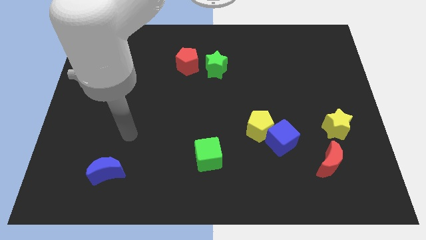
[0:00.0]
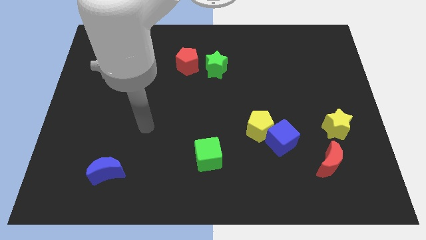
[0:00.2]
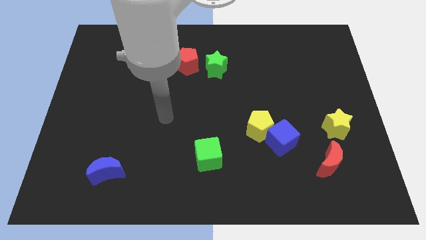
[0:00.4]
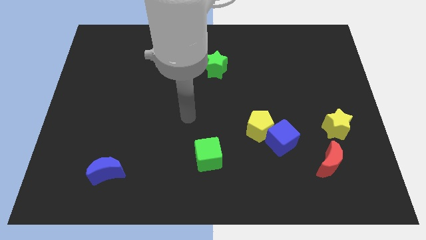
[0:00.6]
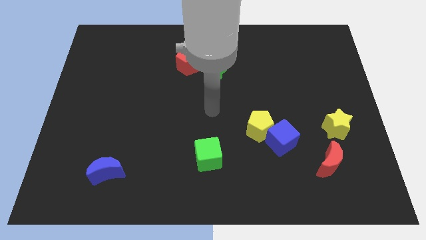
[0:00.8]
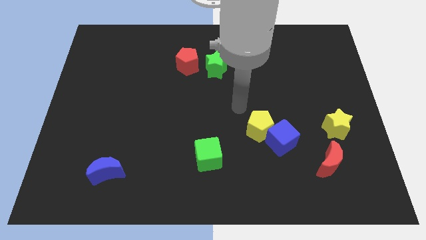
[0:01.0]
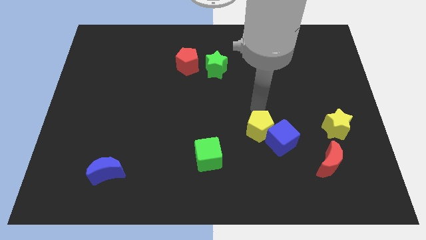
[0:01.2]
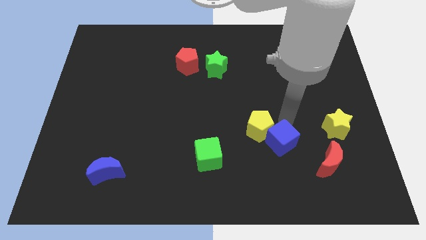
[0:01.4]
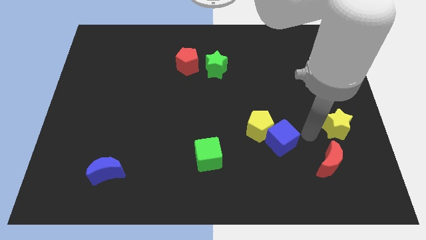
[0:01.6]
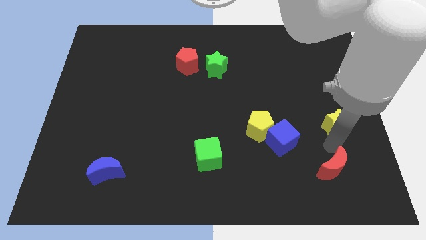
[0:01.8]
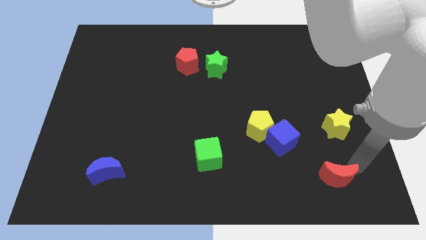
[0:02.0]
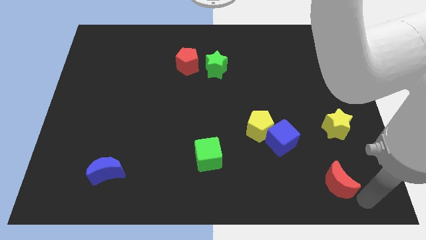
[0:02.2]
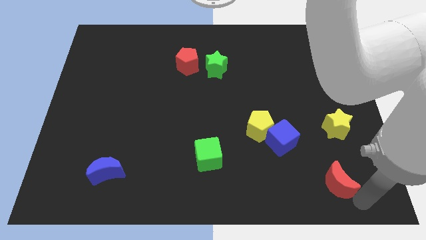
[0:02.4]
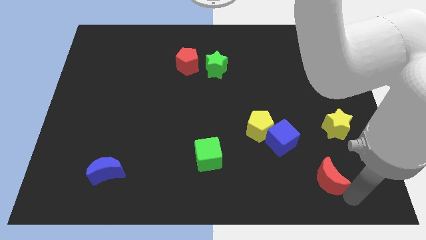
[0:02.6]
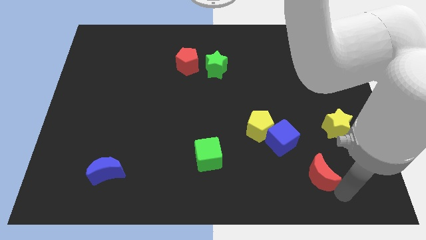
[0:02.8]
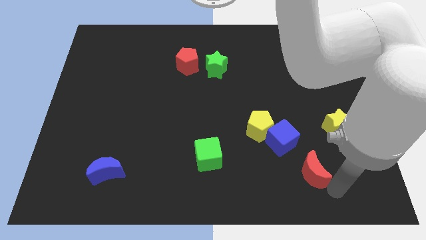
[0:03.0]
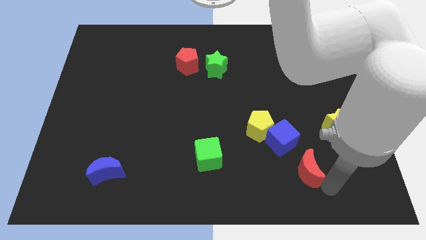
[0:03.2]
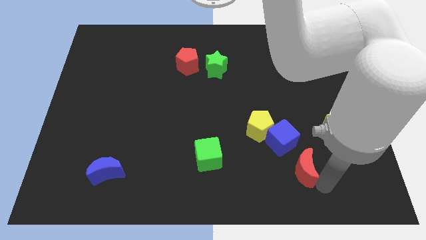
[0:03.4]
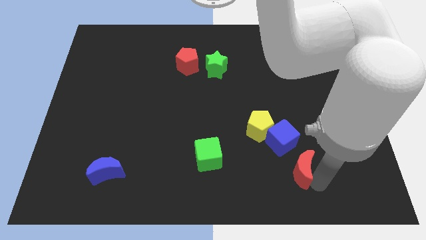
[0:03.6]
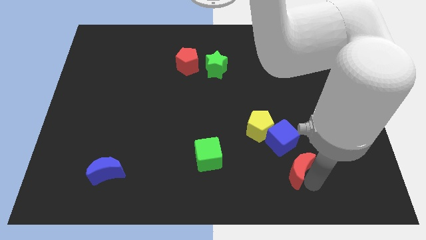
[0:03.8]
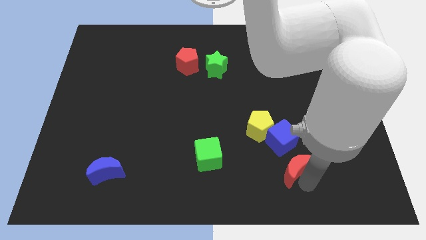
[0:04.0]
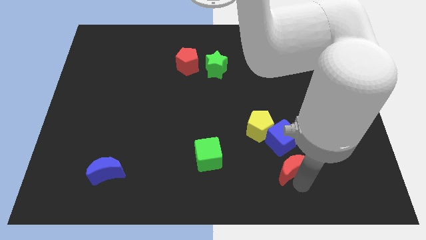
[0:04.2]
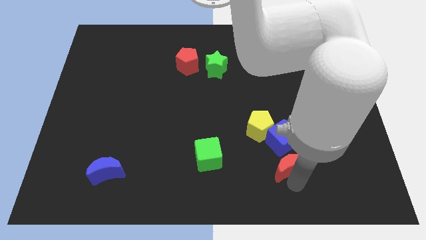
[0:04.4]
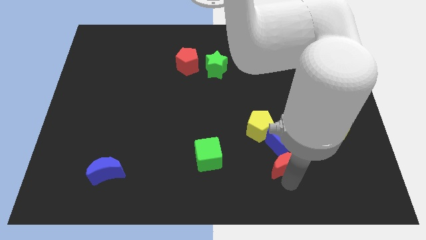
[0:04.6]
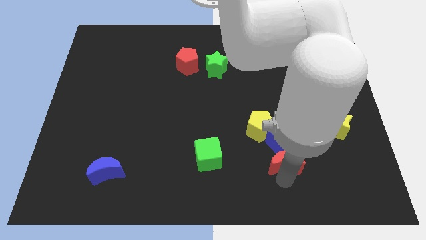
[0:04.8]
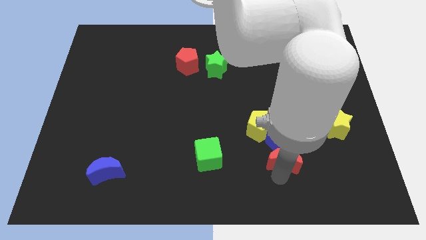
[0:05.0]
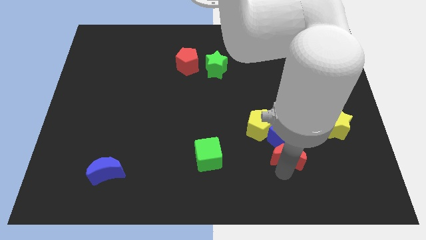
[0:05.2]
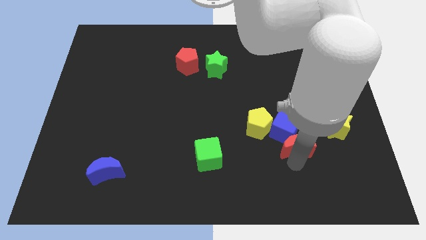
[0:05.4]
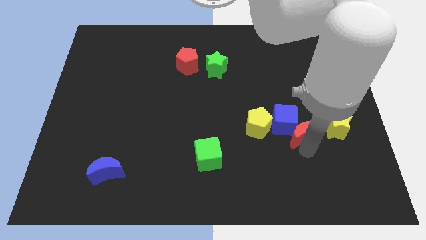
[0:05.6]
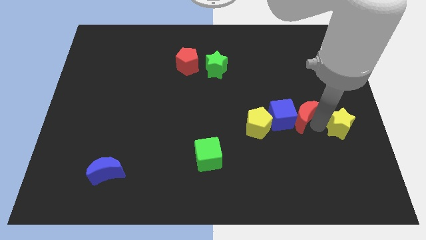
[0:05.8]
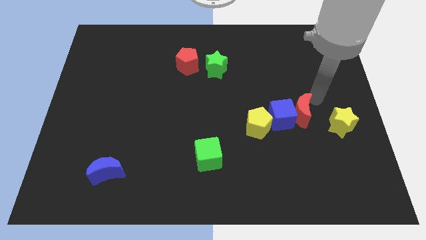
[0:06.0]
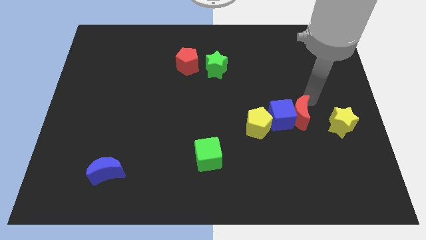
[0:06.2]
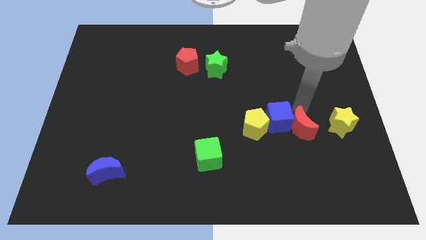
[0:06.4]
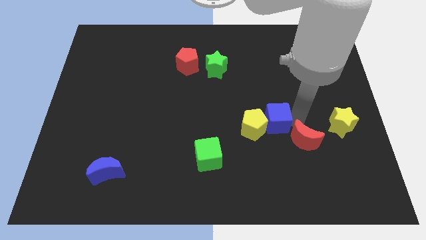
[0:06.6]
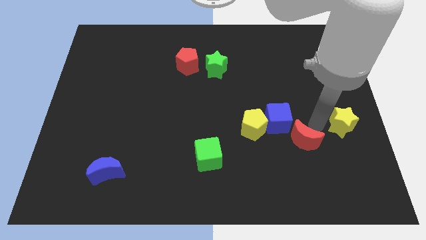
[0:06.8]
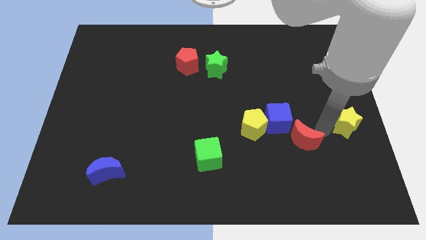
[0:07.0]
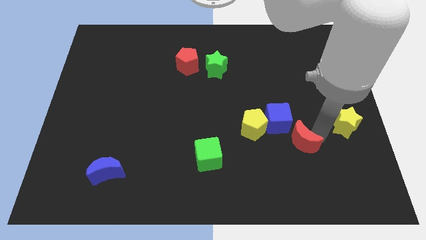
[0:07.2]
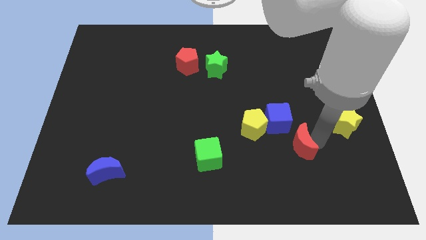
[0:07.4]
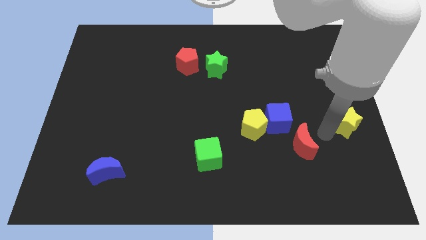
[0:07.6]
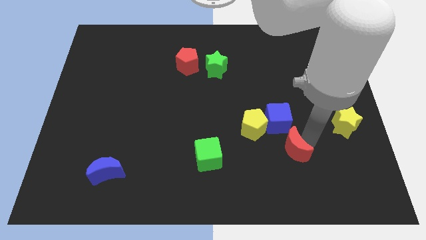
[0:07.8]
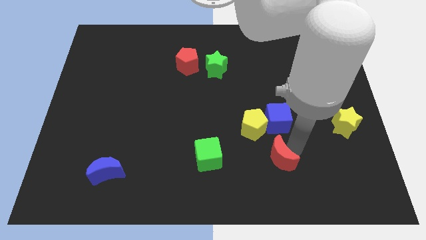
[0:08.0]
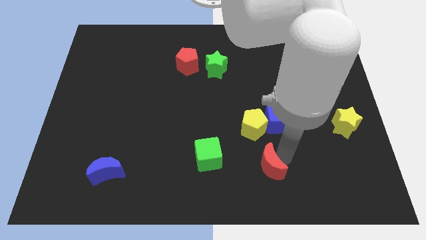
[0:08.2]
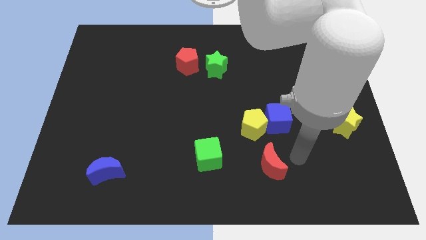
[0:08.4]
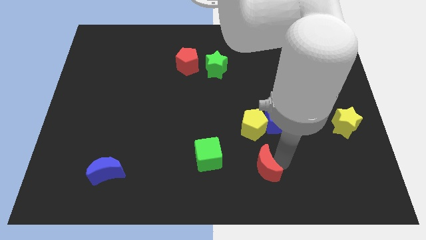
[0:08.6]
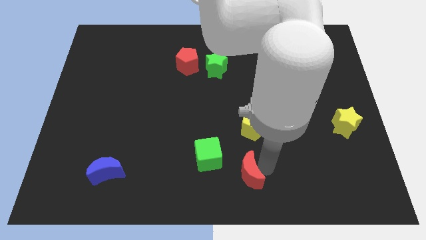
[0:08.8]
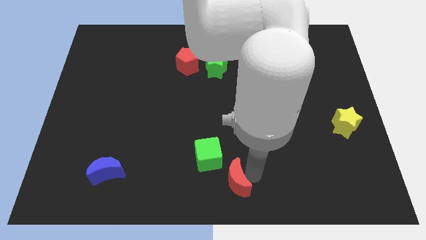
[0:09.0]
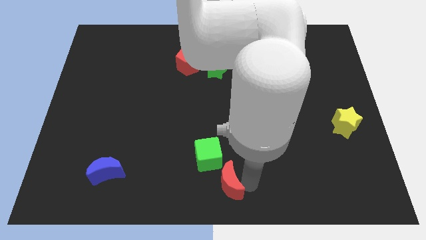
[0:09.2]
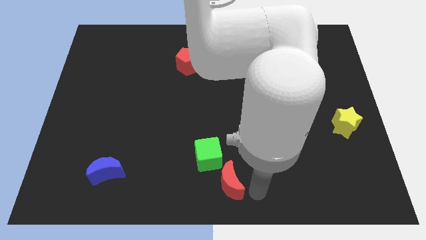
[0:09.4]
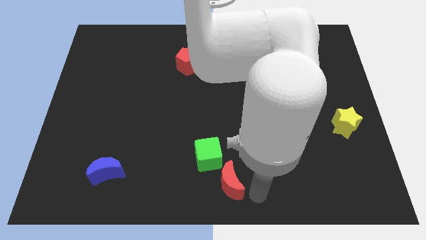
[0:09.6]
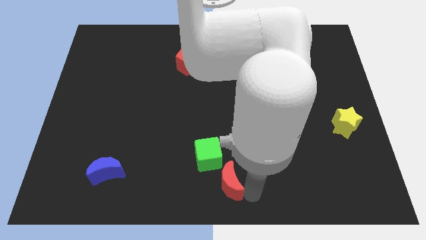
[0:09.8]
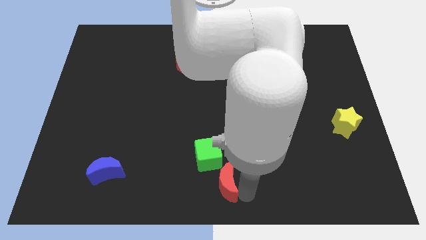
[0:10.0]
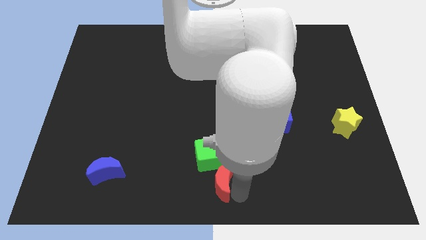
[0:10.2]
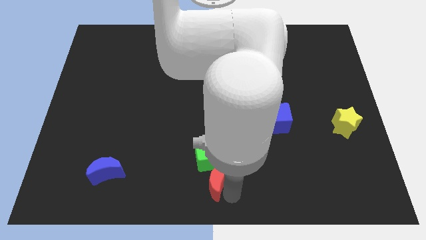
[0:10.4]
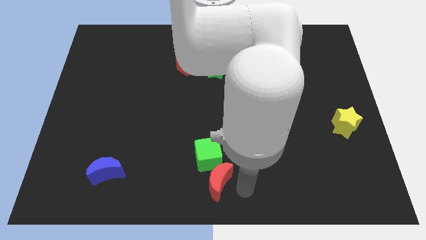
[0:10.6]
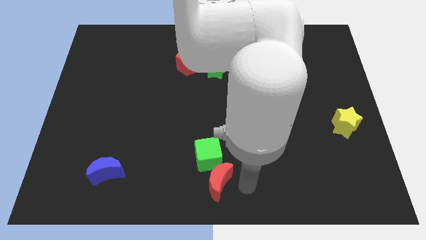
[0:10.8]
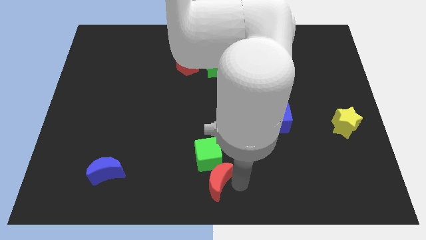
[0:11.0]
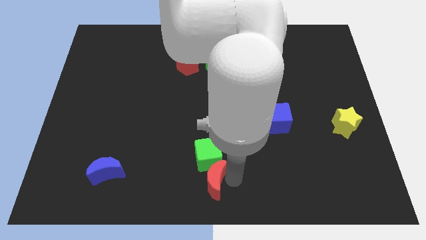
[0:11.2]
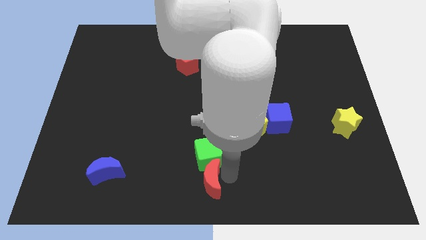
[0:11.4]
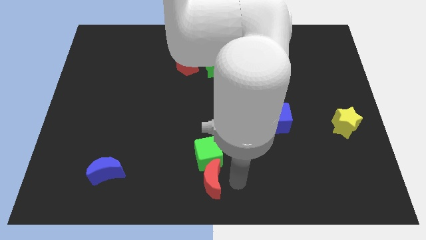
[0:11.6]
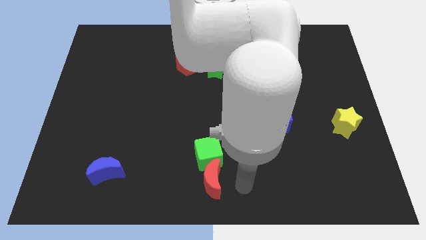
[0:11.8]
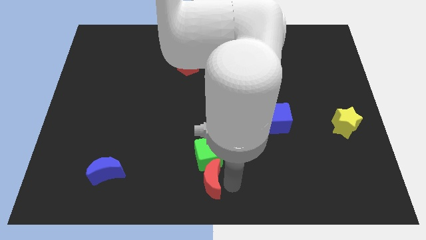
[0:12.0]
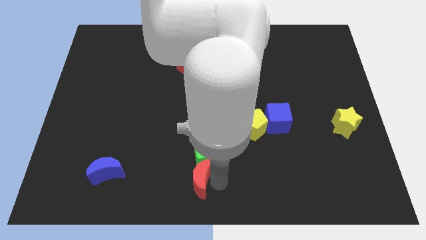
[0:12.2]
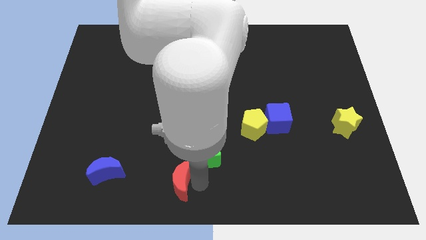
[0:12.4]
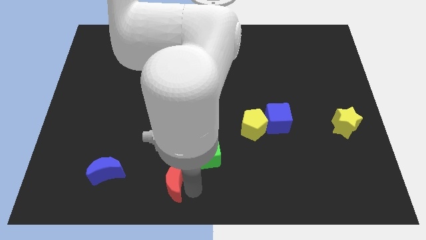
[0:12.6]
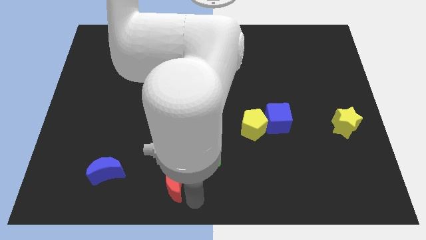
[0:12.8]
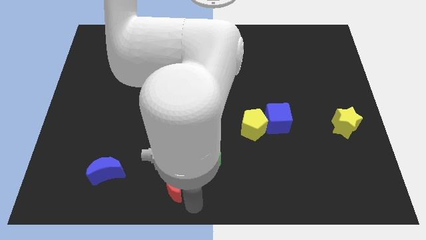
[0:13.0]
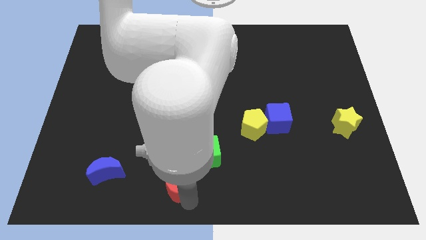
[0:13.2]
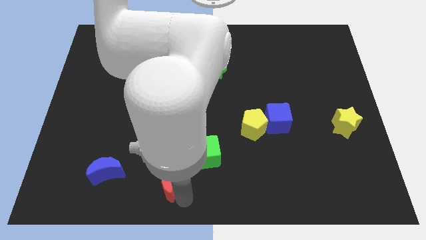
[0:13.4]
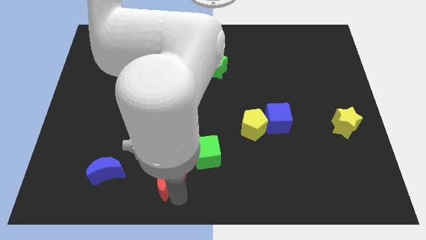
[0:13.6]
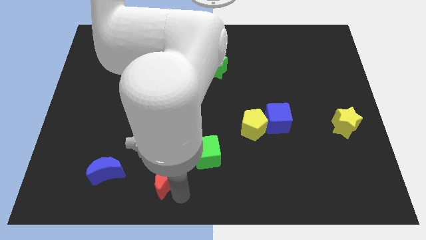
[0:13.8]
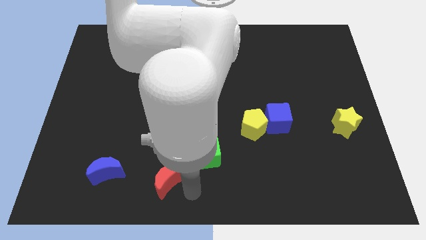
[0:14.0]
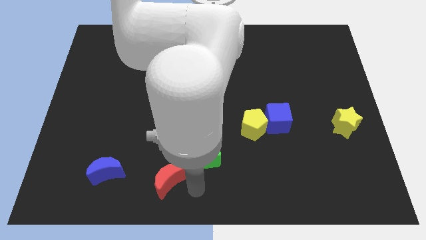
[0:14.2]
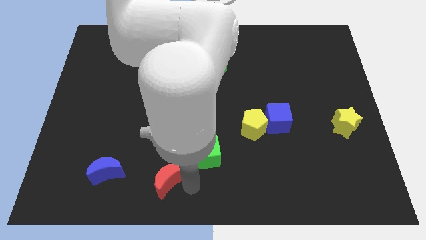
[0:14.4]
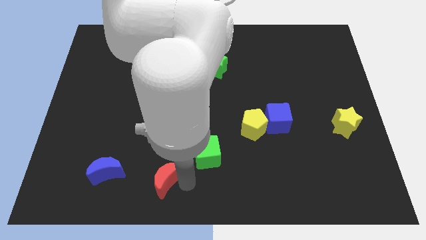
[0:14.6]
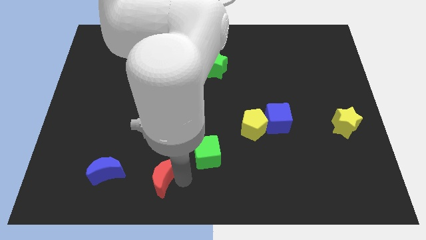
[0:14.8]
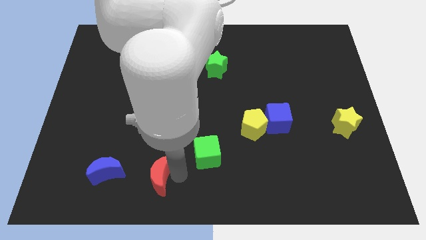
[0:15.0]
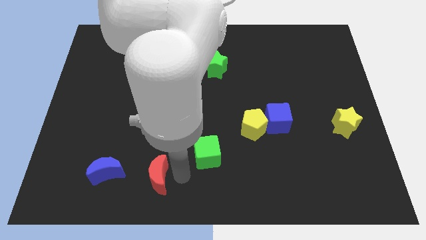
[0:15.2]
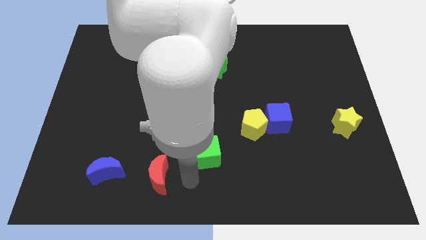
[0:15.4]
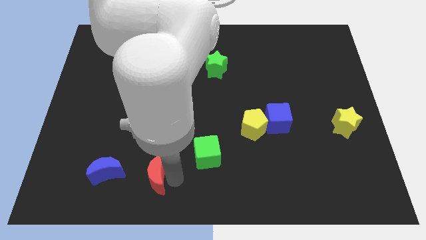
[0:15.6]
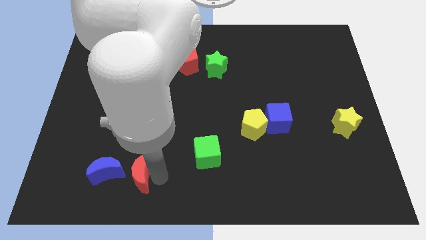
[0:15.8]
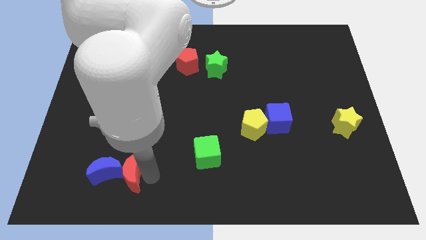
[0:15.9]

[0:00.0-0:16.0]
slide the red moon close to the blue moon
